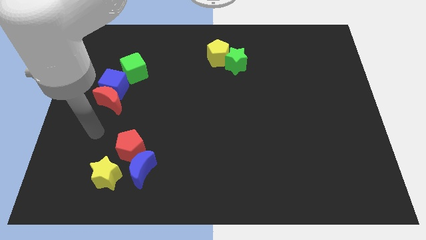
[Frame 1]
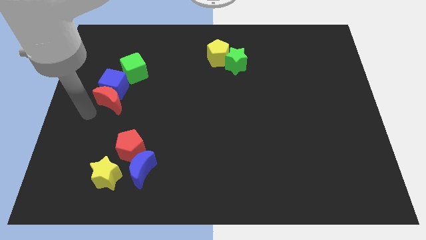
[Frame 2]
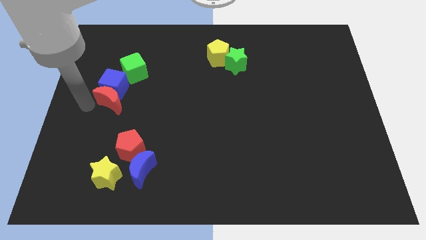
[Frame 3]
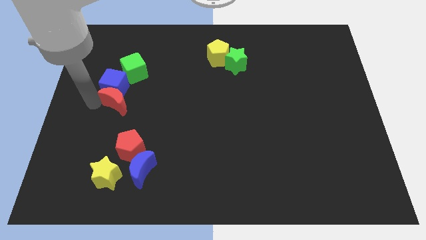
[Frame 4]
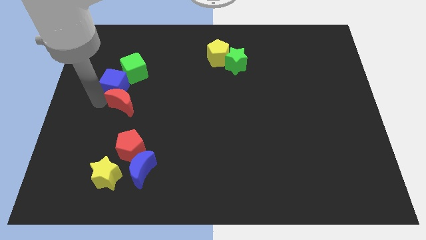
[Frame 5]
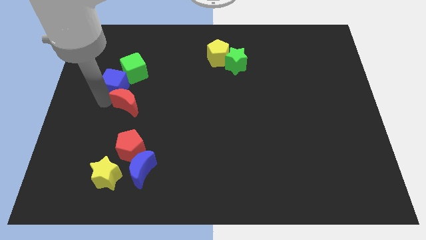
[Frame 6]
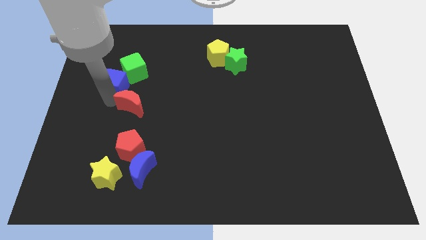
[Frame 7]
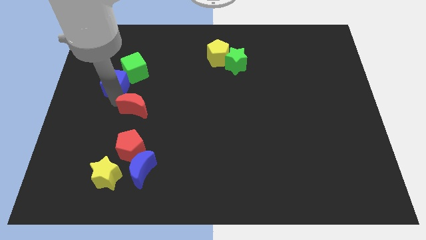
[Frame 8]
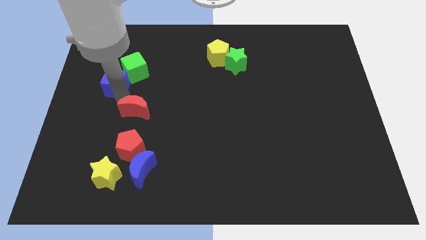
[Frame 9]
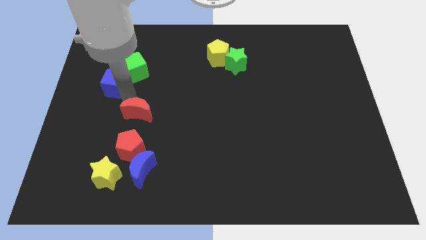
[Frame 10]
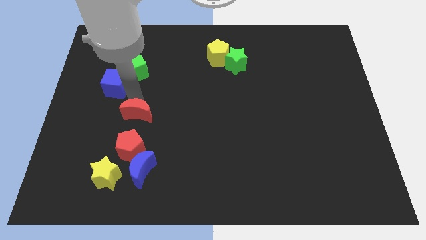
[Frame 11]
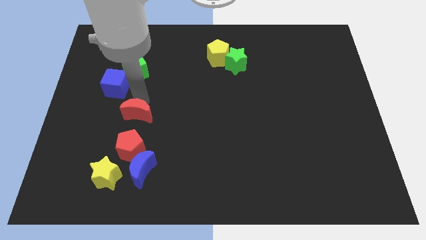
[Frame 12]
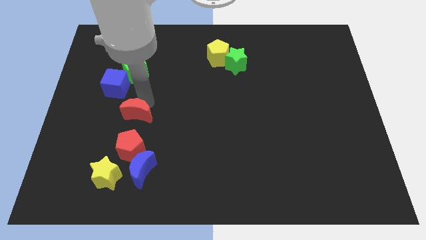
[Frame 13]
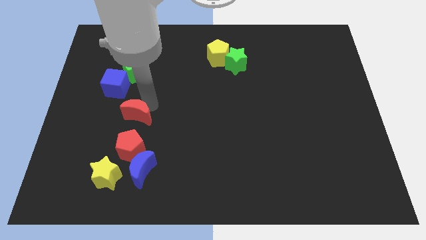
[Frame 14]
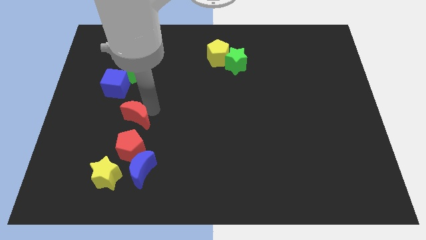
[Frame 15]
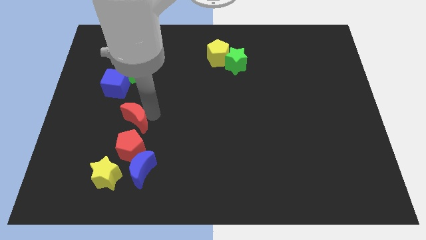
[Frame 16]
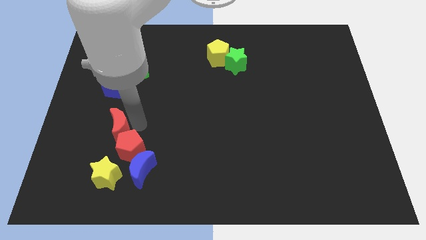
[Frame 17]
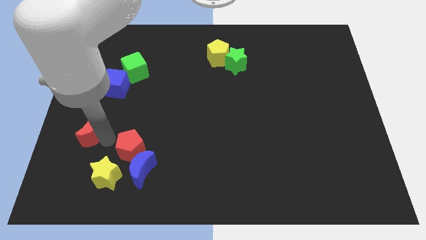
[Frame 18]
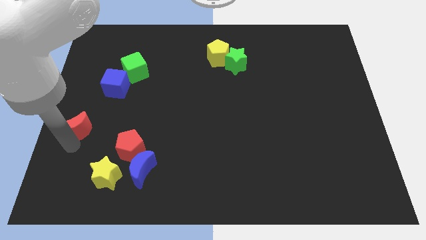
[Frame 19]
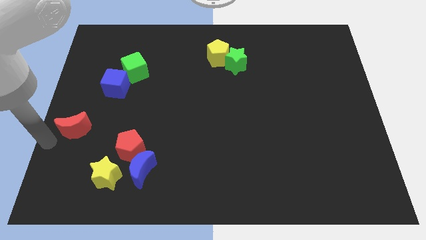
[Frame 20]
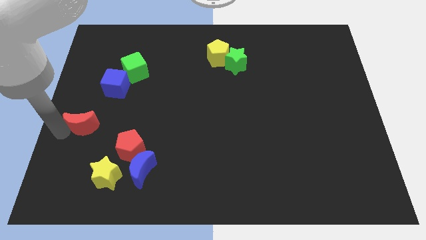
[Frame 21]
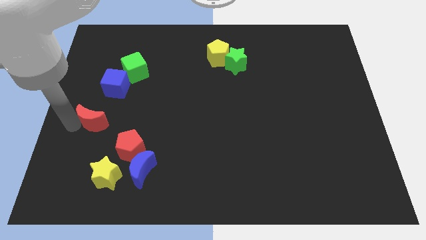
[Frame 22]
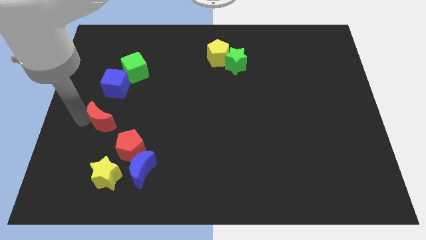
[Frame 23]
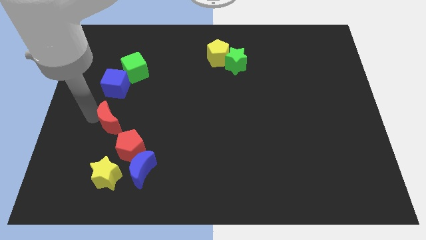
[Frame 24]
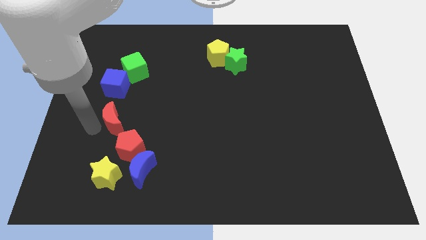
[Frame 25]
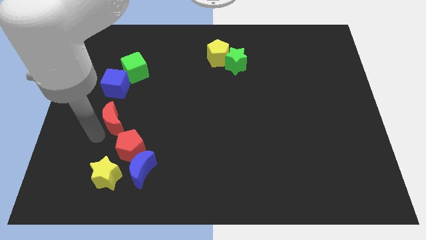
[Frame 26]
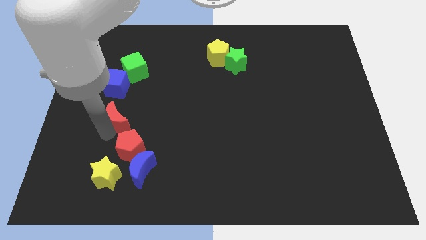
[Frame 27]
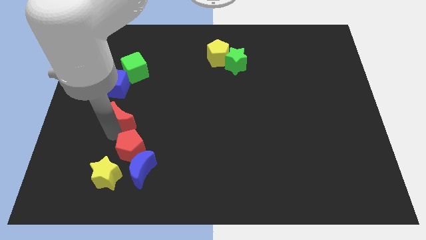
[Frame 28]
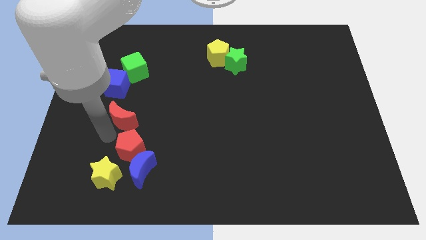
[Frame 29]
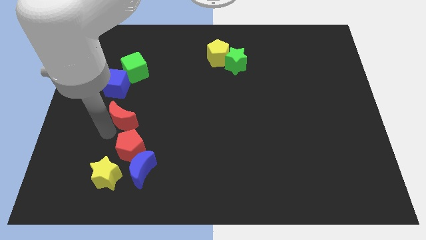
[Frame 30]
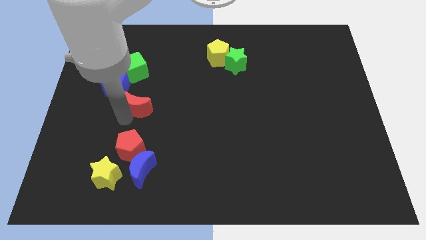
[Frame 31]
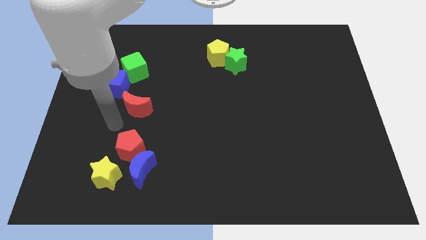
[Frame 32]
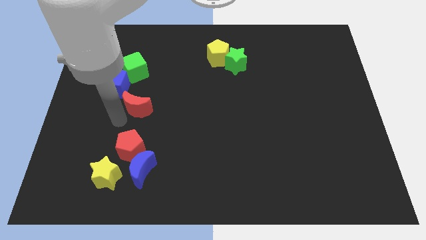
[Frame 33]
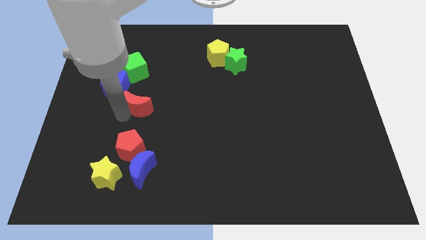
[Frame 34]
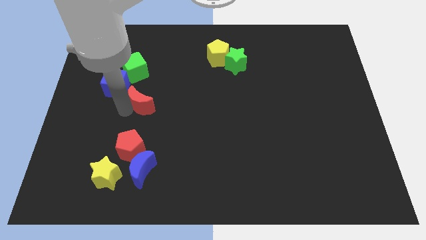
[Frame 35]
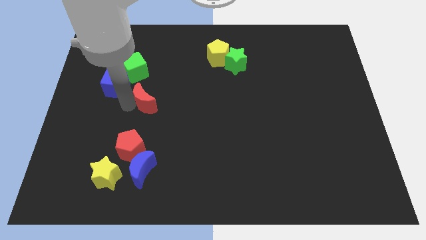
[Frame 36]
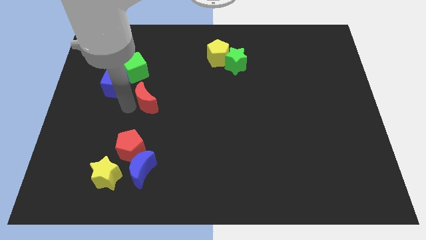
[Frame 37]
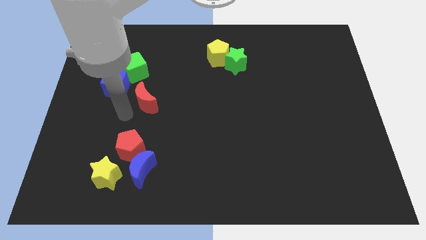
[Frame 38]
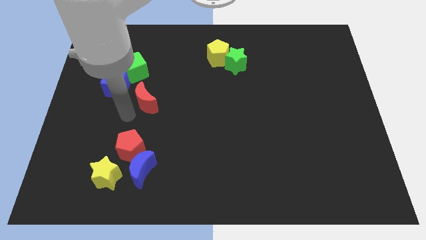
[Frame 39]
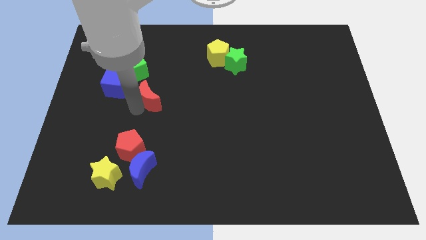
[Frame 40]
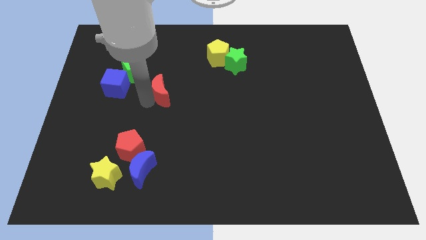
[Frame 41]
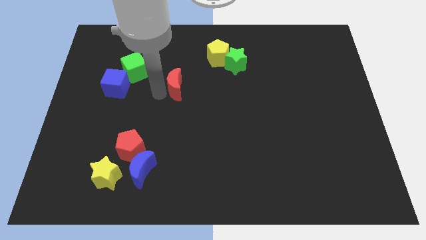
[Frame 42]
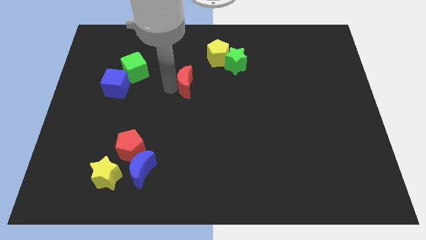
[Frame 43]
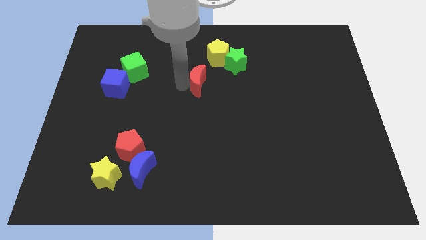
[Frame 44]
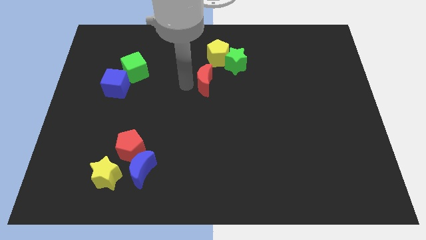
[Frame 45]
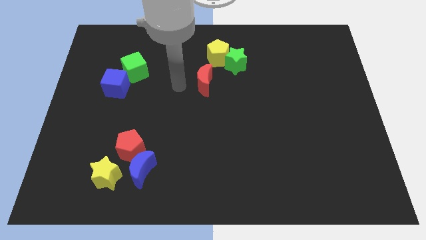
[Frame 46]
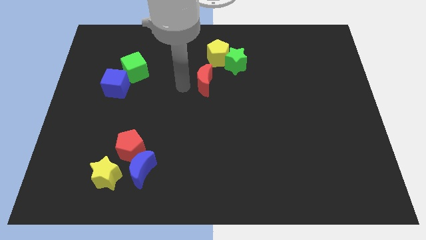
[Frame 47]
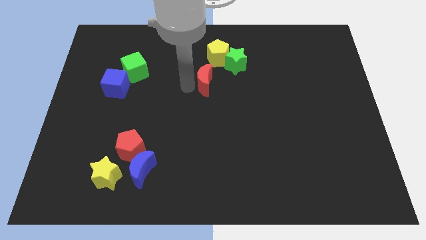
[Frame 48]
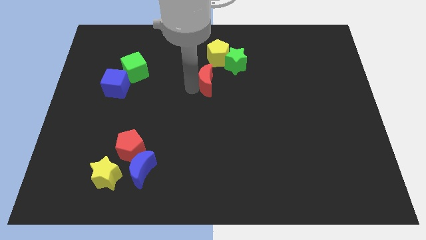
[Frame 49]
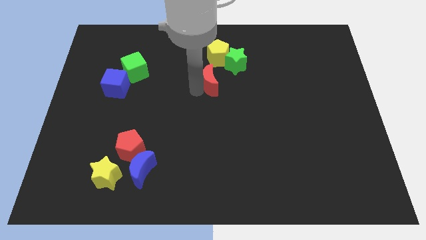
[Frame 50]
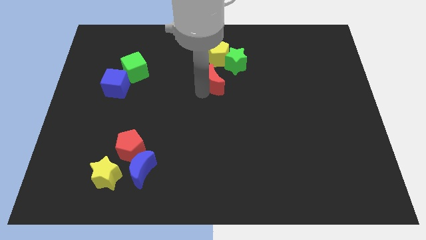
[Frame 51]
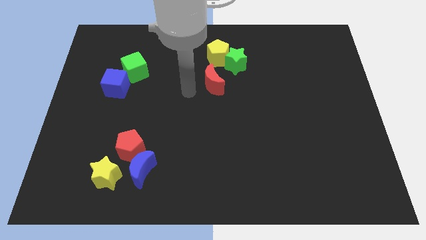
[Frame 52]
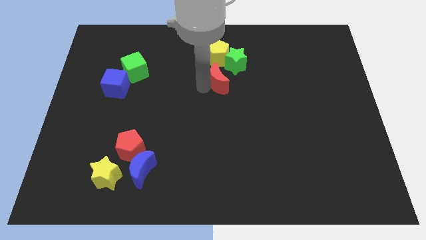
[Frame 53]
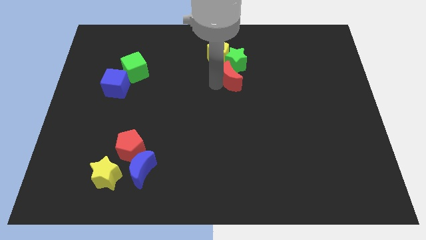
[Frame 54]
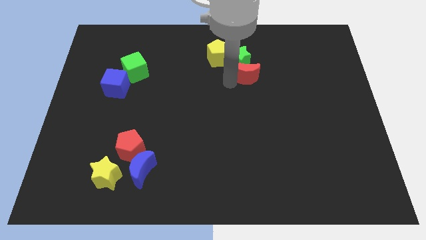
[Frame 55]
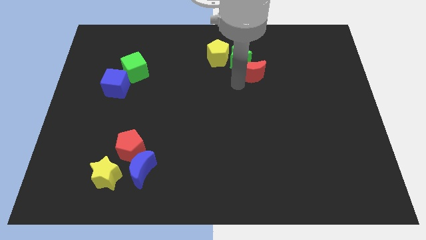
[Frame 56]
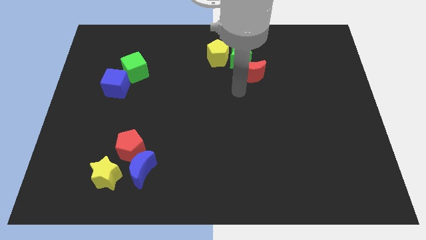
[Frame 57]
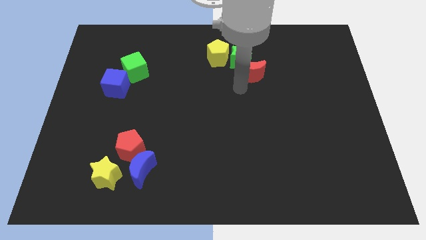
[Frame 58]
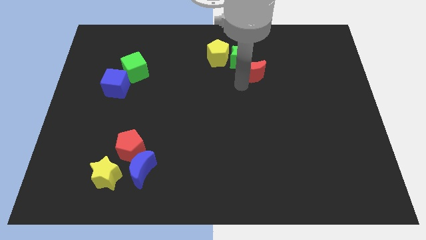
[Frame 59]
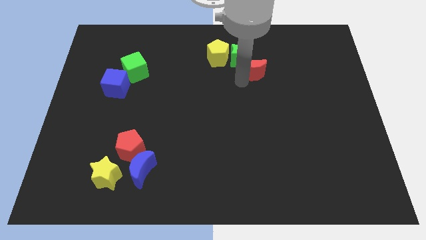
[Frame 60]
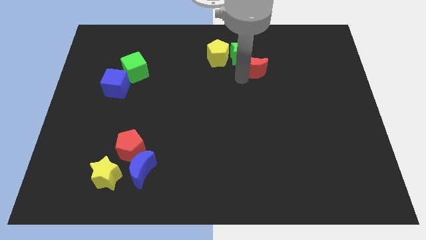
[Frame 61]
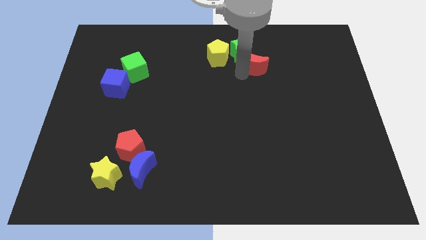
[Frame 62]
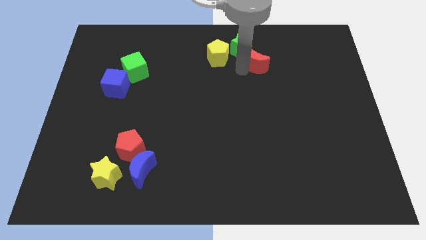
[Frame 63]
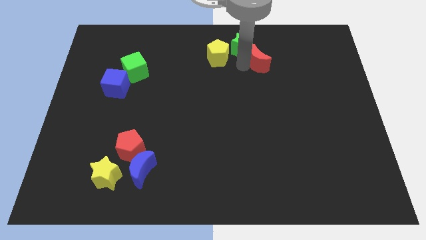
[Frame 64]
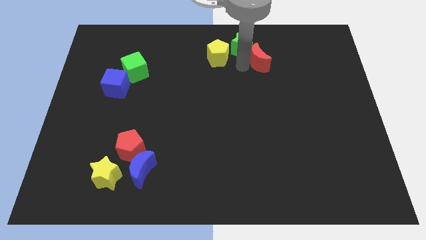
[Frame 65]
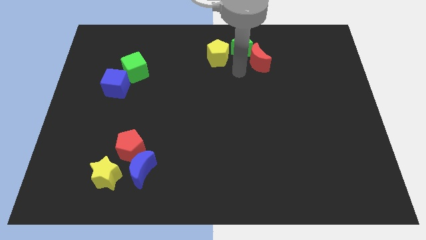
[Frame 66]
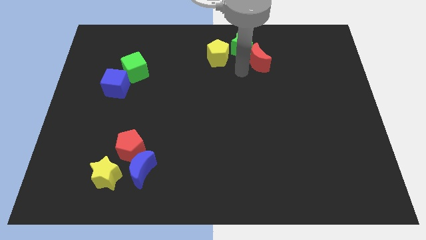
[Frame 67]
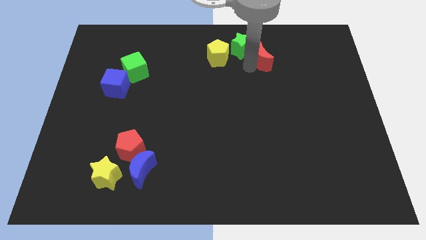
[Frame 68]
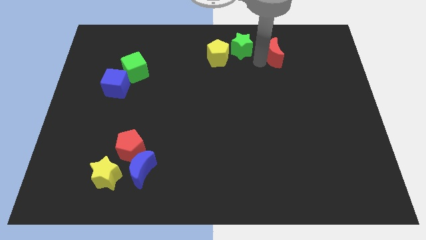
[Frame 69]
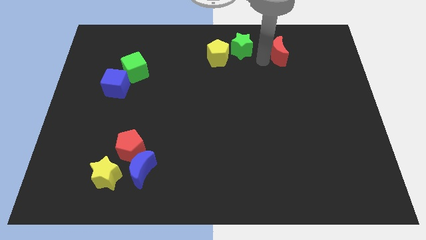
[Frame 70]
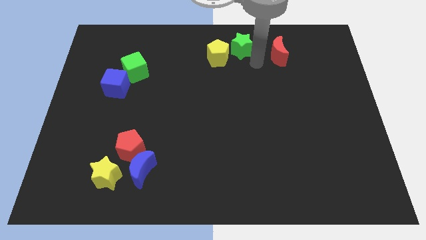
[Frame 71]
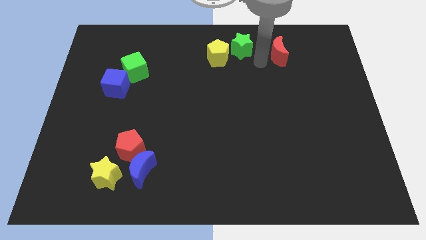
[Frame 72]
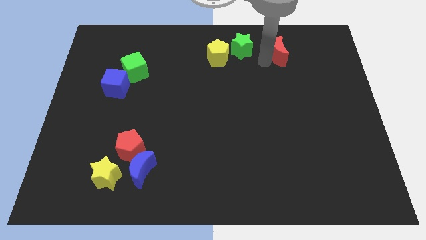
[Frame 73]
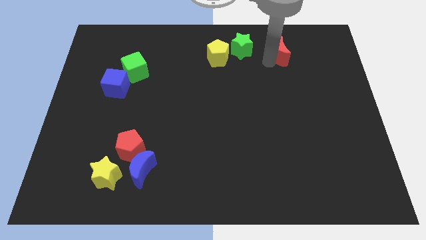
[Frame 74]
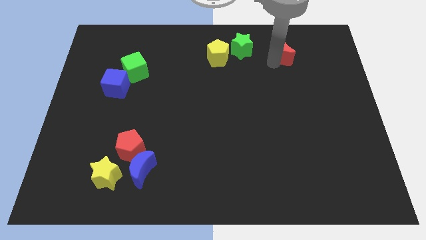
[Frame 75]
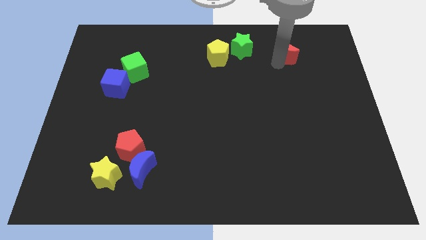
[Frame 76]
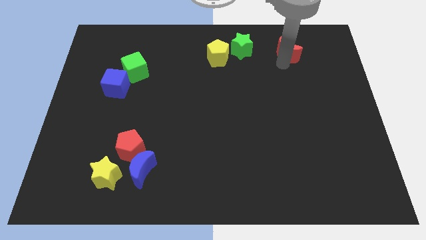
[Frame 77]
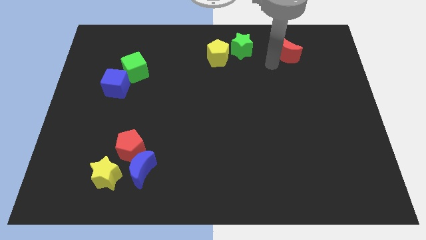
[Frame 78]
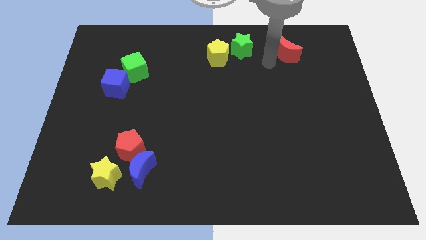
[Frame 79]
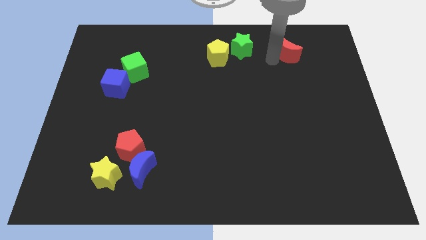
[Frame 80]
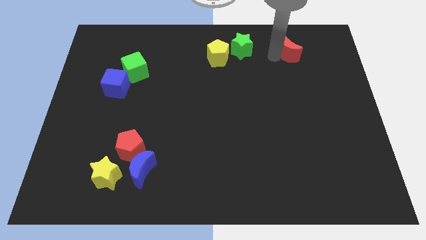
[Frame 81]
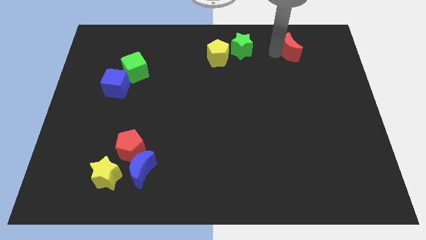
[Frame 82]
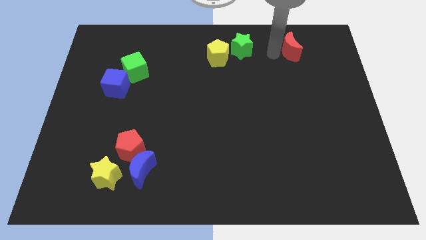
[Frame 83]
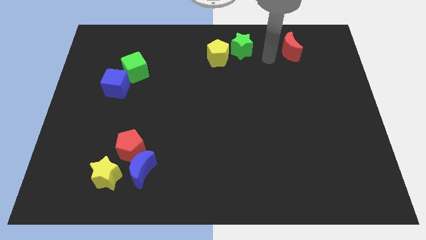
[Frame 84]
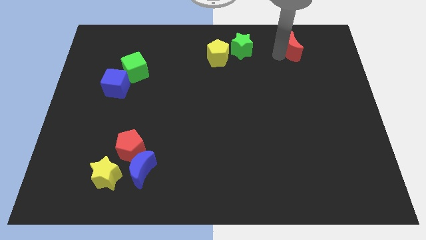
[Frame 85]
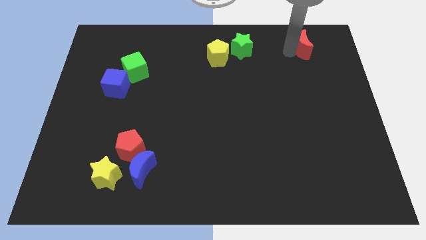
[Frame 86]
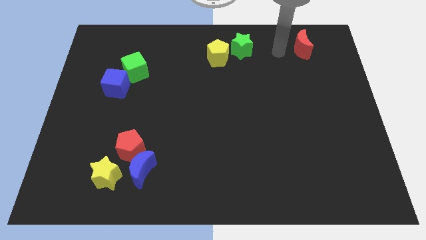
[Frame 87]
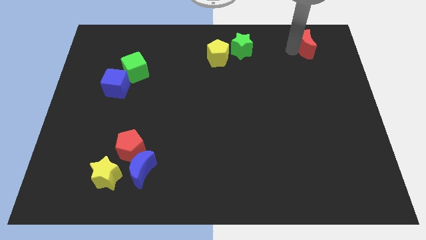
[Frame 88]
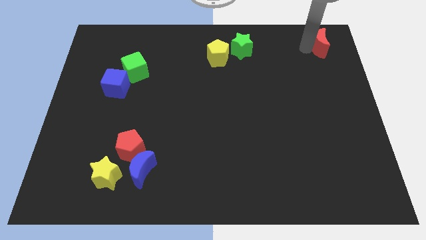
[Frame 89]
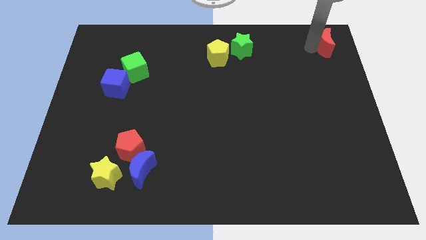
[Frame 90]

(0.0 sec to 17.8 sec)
push the red moon to the top right
